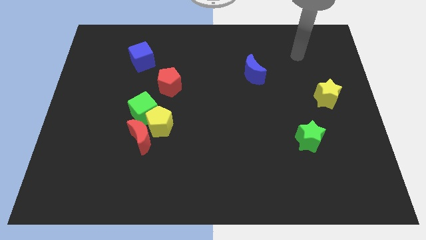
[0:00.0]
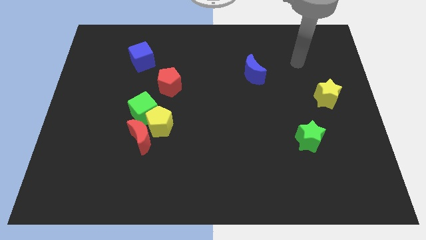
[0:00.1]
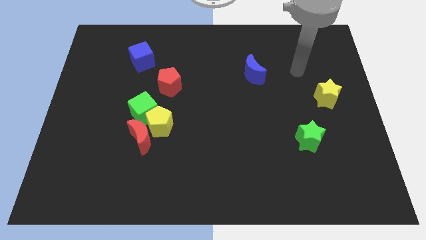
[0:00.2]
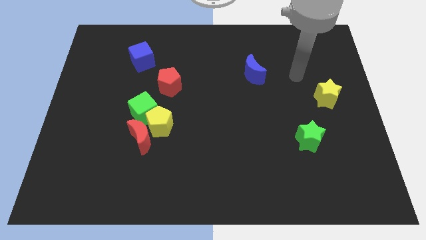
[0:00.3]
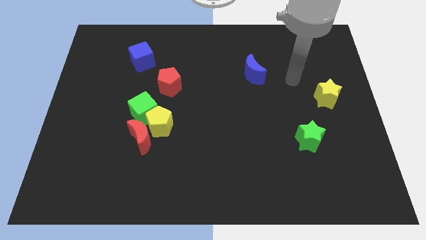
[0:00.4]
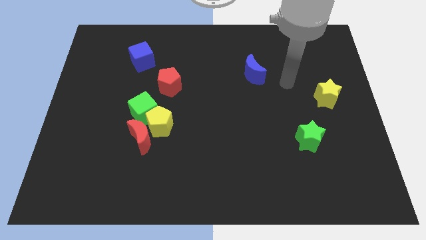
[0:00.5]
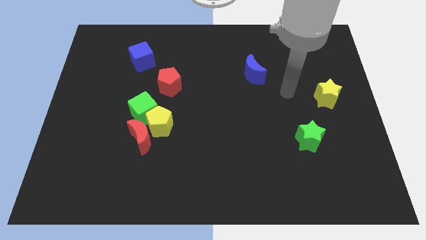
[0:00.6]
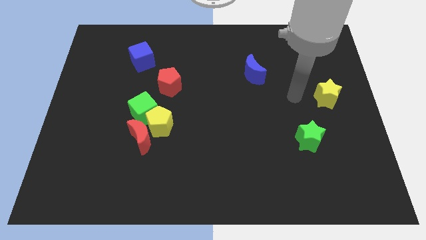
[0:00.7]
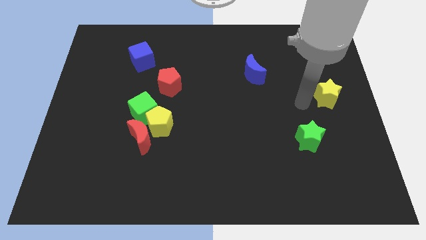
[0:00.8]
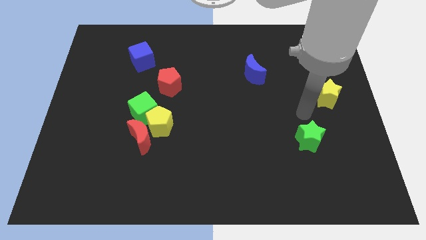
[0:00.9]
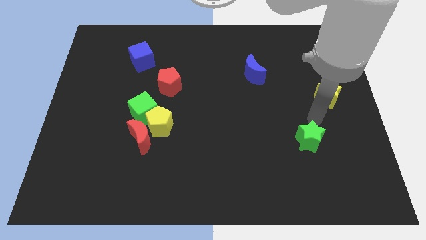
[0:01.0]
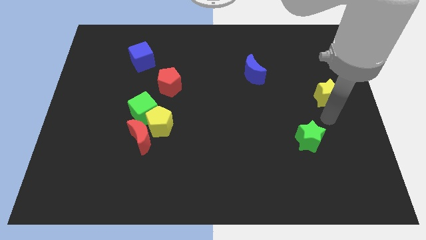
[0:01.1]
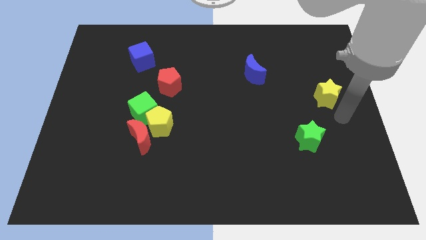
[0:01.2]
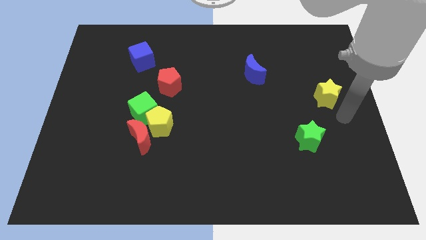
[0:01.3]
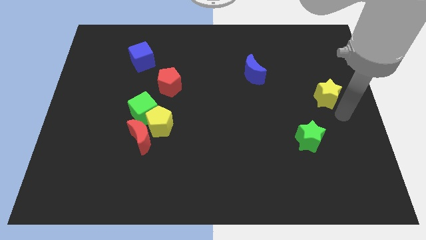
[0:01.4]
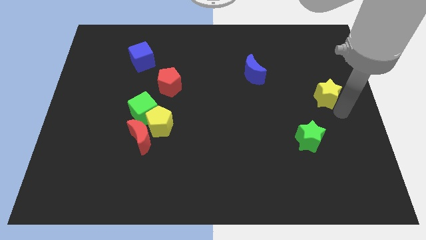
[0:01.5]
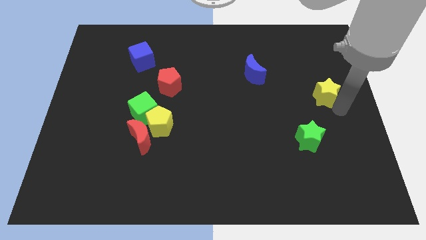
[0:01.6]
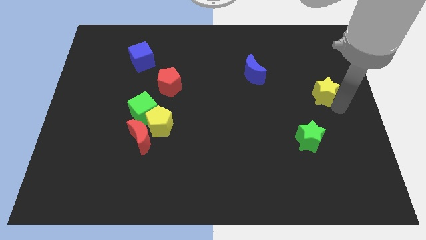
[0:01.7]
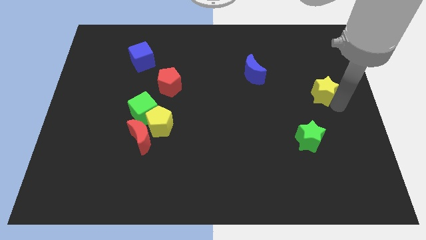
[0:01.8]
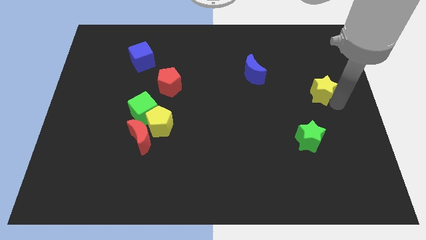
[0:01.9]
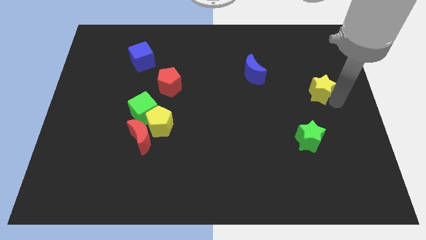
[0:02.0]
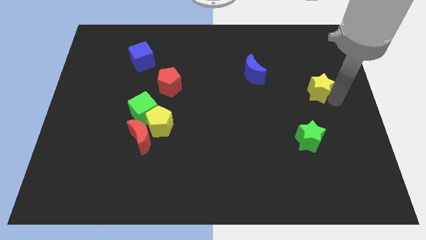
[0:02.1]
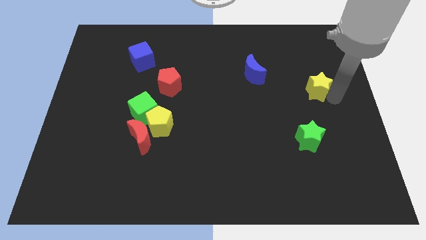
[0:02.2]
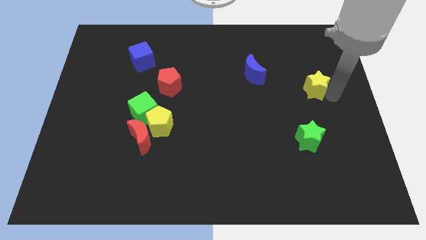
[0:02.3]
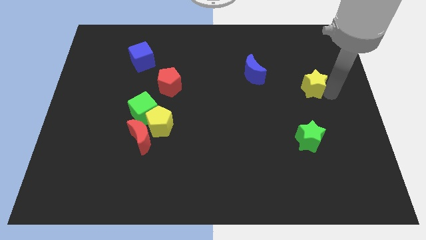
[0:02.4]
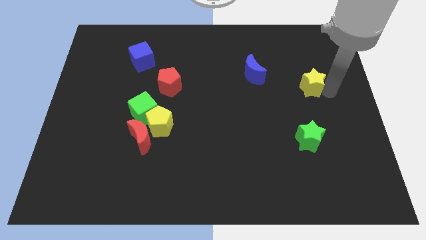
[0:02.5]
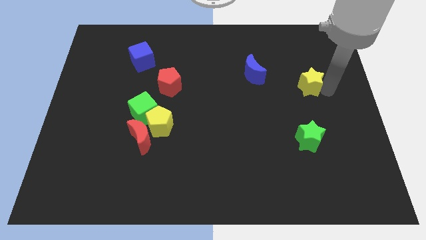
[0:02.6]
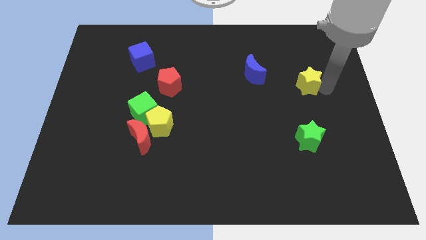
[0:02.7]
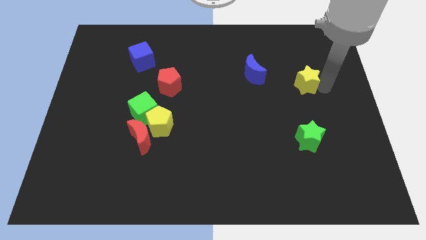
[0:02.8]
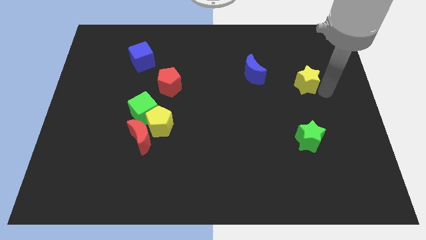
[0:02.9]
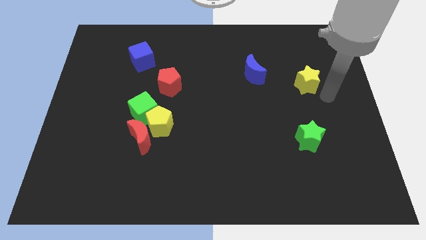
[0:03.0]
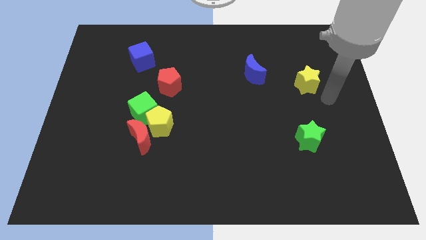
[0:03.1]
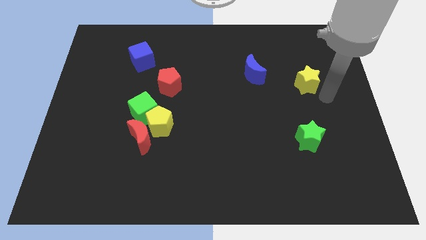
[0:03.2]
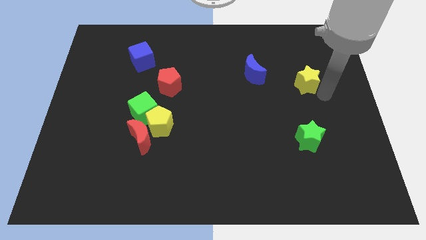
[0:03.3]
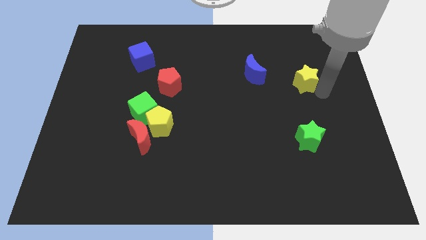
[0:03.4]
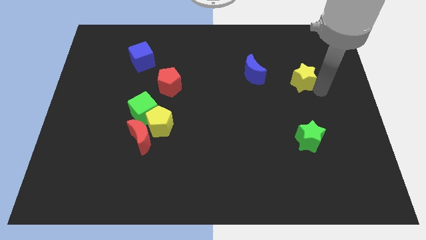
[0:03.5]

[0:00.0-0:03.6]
slide the yellow star diagonally upwards and left slightly

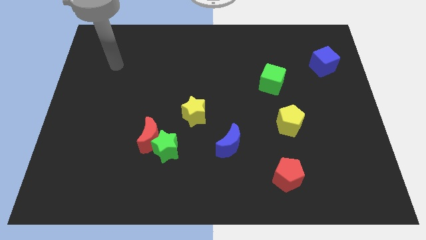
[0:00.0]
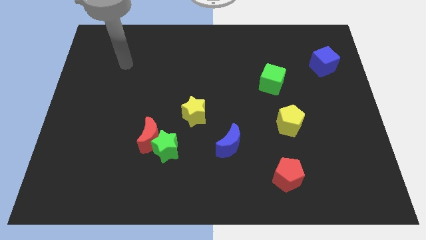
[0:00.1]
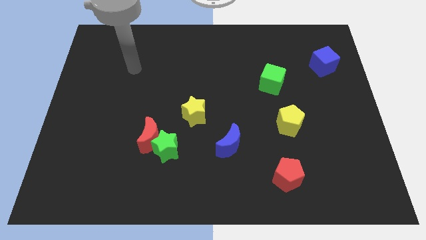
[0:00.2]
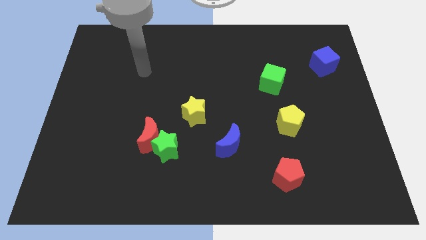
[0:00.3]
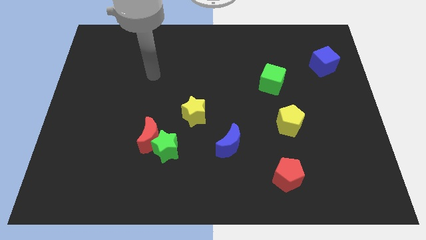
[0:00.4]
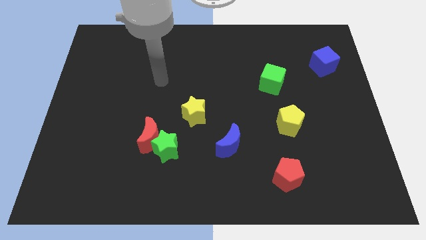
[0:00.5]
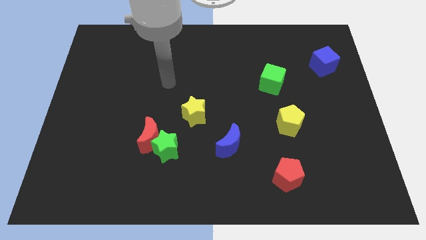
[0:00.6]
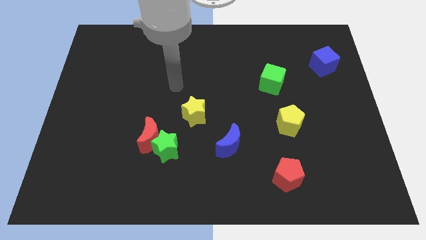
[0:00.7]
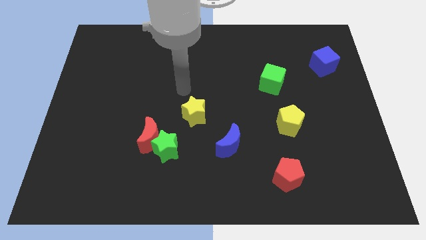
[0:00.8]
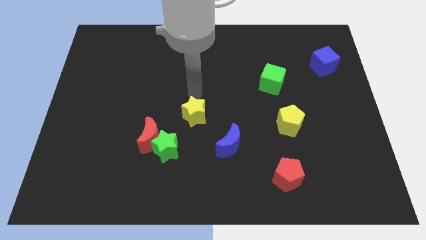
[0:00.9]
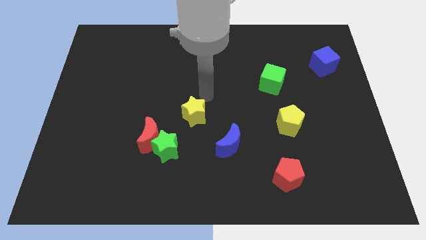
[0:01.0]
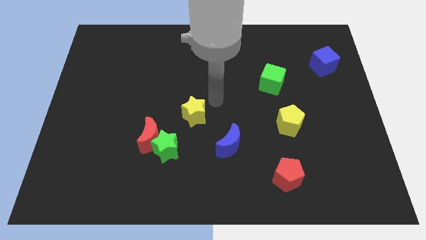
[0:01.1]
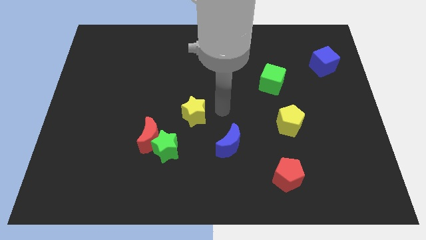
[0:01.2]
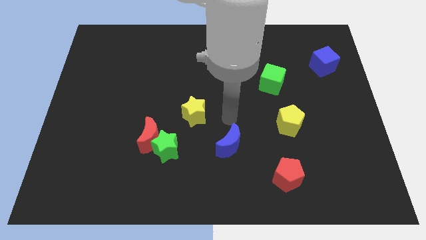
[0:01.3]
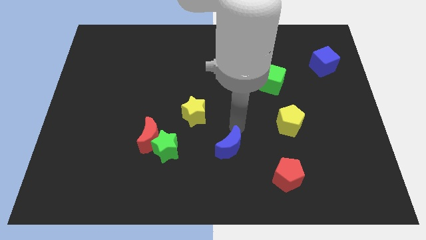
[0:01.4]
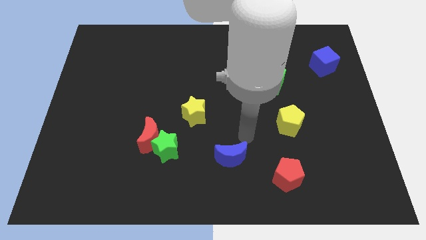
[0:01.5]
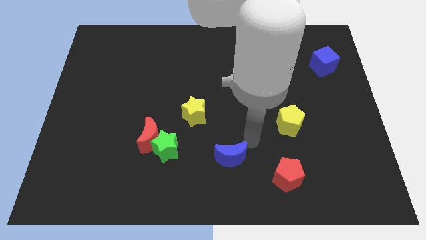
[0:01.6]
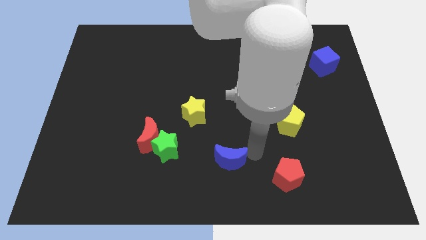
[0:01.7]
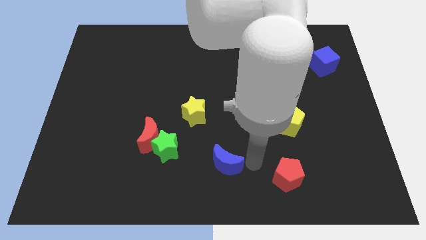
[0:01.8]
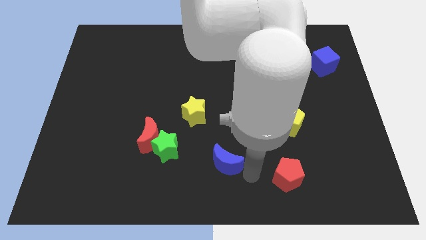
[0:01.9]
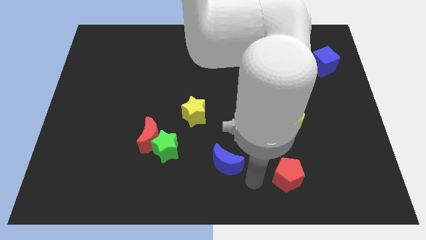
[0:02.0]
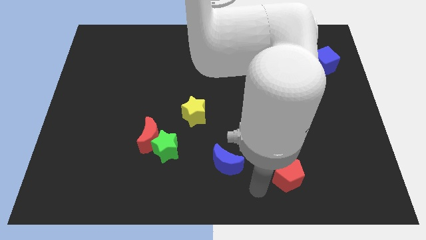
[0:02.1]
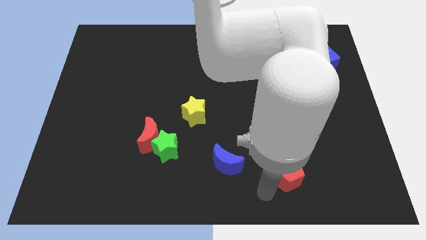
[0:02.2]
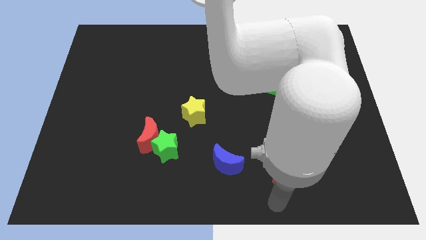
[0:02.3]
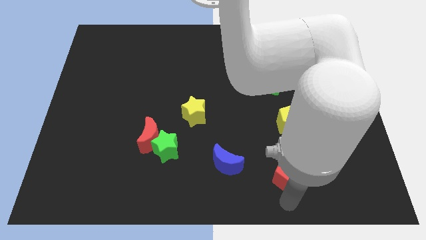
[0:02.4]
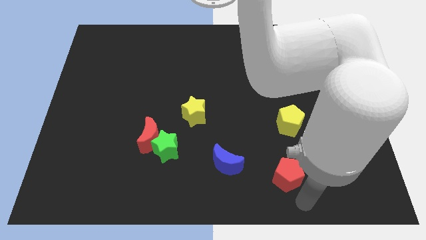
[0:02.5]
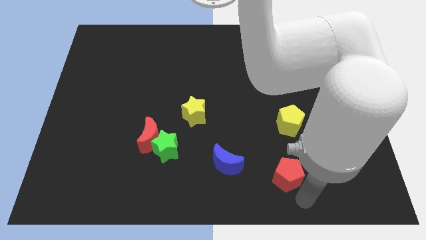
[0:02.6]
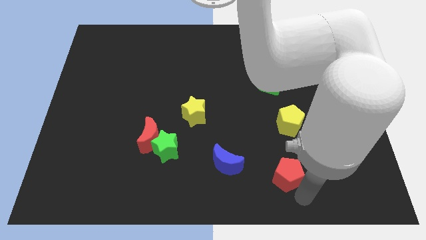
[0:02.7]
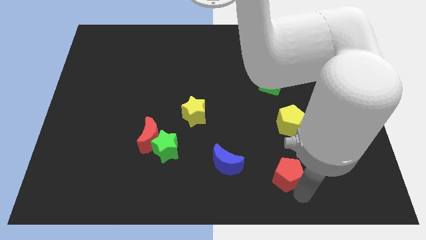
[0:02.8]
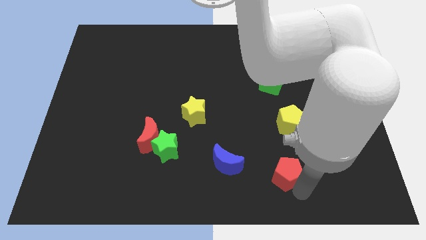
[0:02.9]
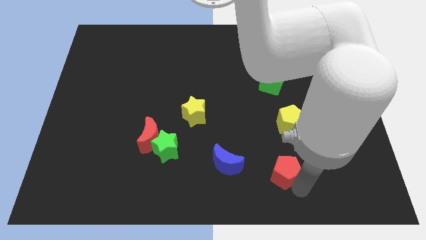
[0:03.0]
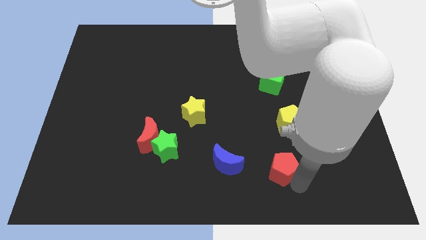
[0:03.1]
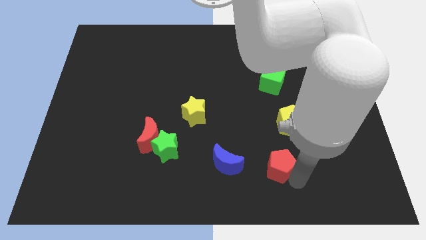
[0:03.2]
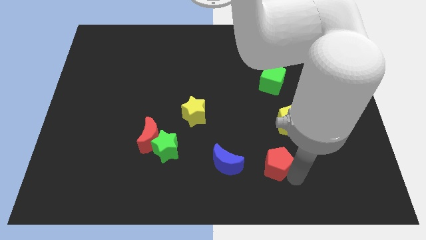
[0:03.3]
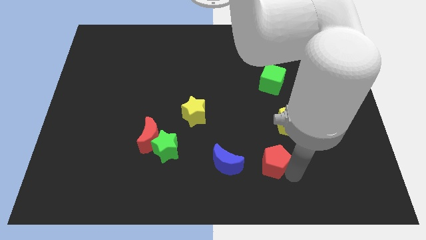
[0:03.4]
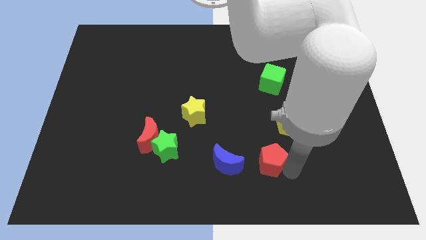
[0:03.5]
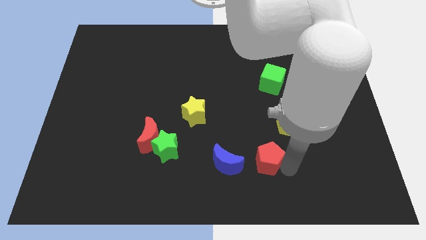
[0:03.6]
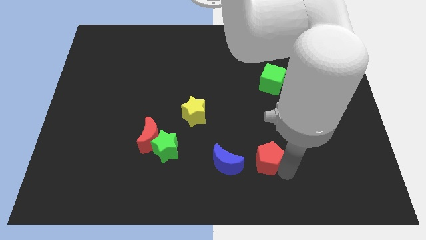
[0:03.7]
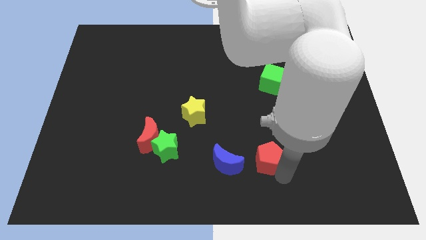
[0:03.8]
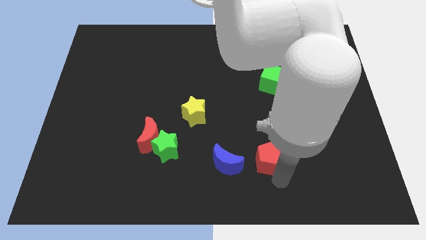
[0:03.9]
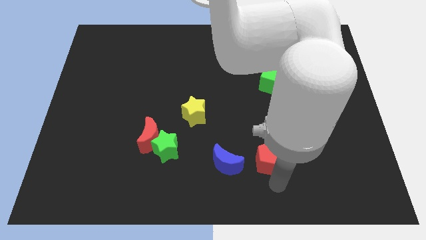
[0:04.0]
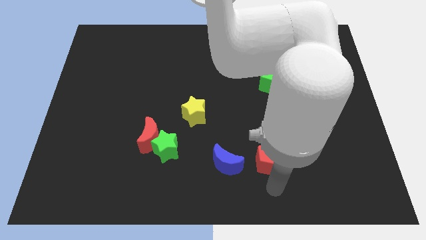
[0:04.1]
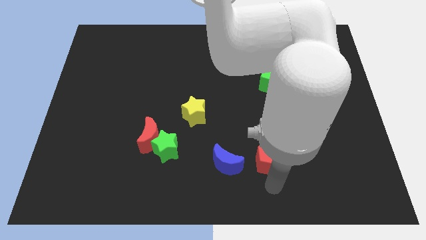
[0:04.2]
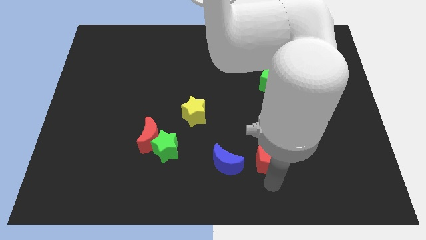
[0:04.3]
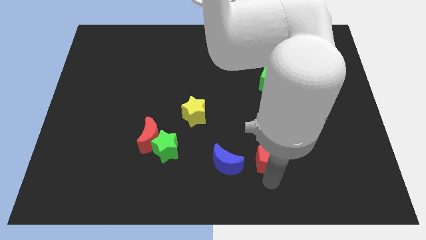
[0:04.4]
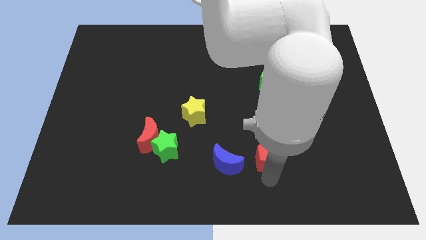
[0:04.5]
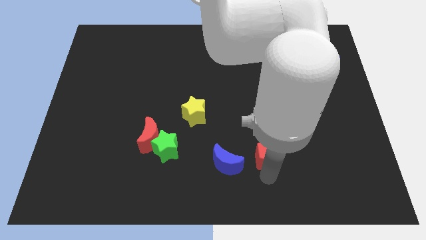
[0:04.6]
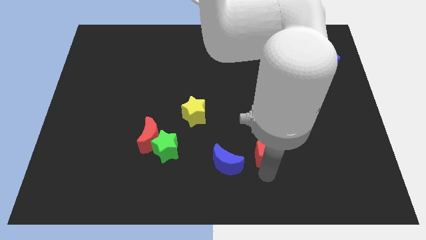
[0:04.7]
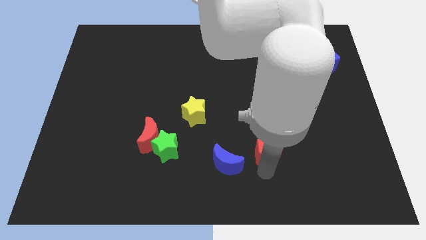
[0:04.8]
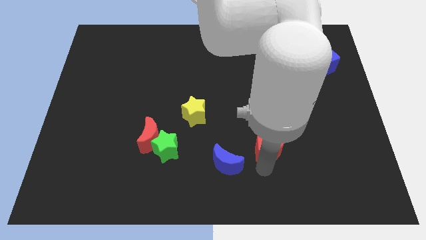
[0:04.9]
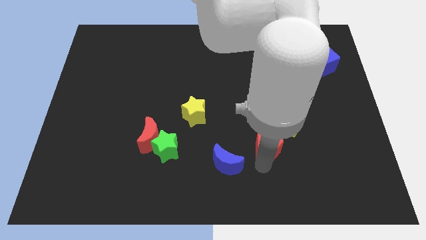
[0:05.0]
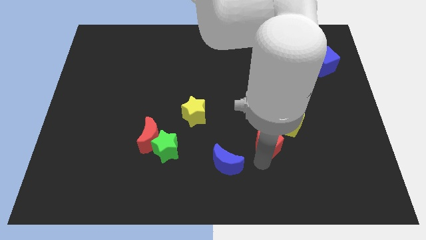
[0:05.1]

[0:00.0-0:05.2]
slide the red pentagon upwards a little

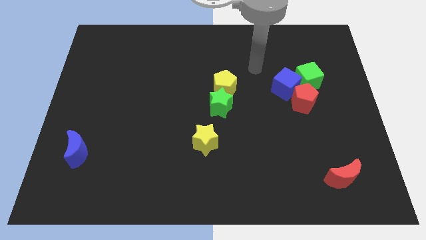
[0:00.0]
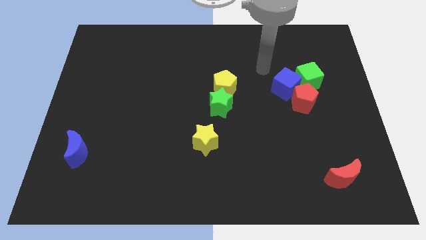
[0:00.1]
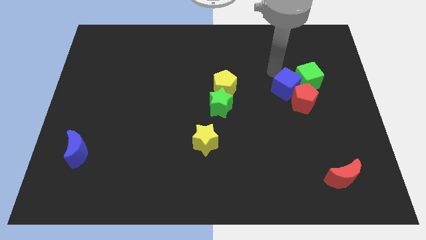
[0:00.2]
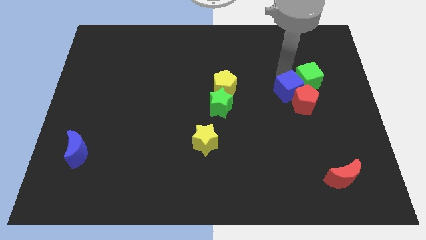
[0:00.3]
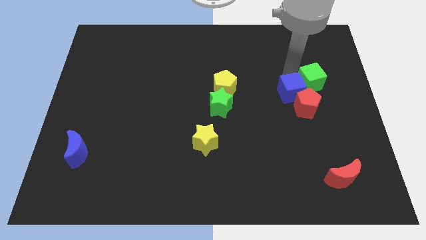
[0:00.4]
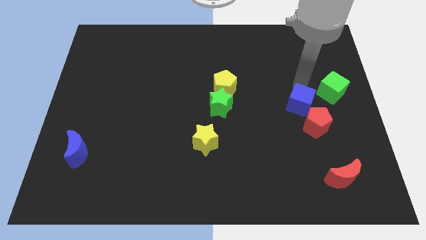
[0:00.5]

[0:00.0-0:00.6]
slide the red pentagon a bit downwards
